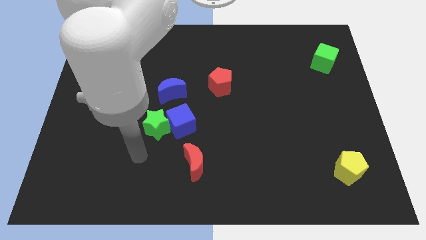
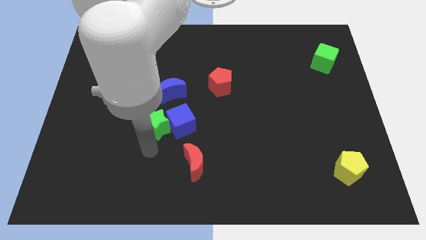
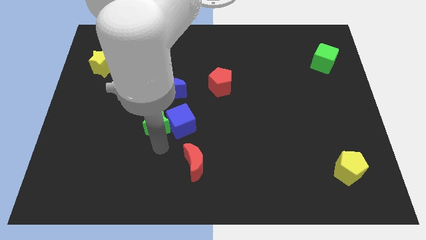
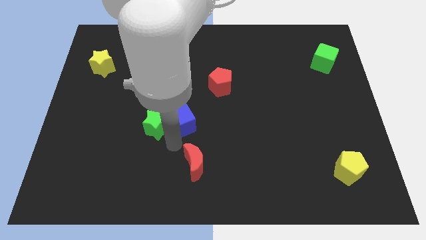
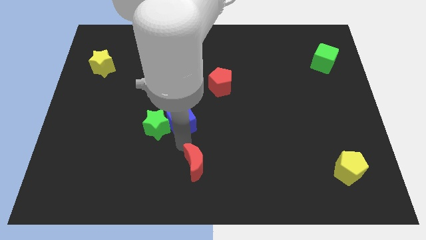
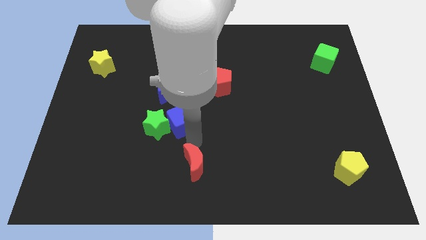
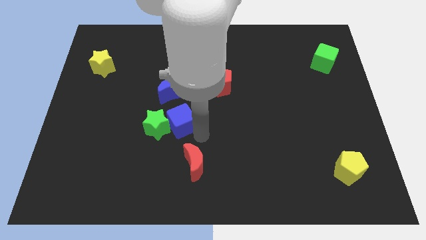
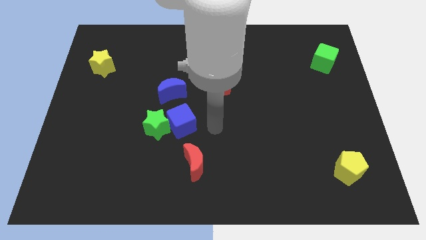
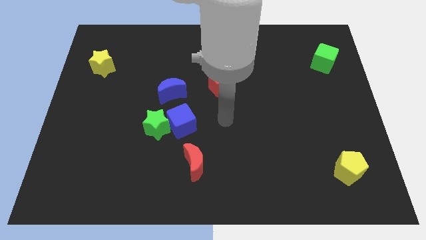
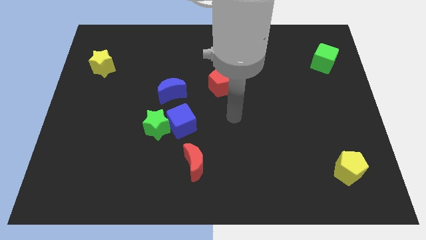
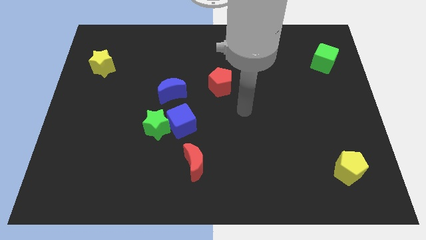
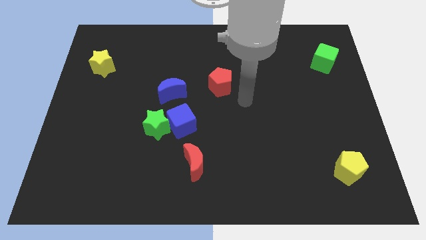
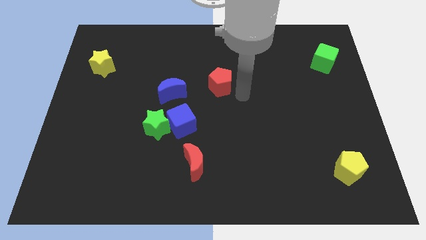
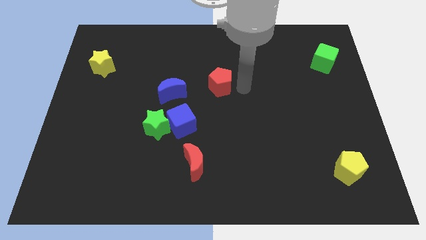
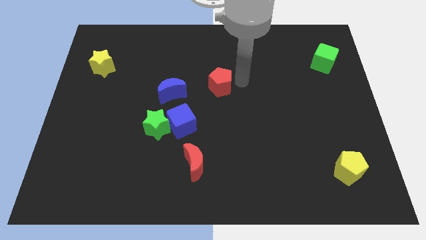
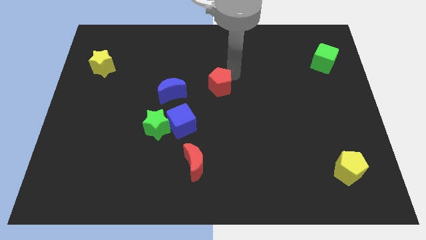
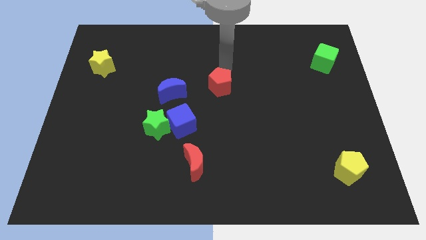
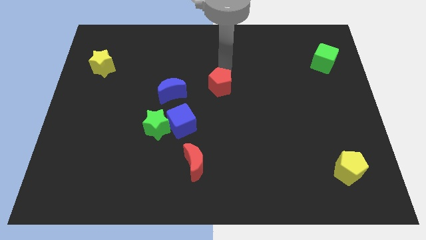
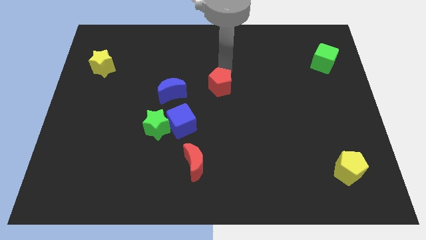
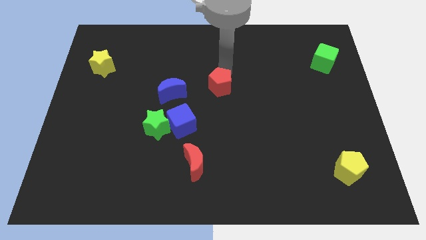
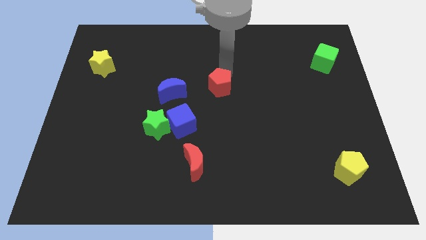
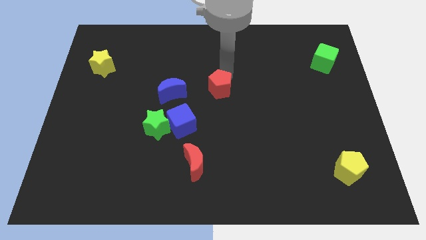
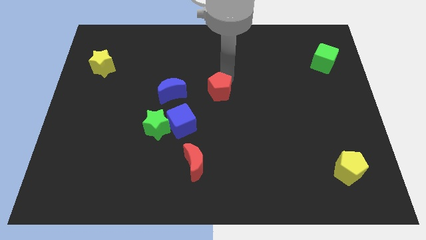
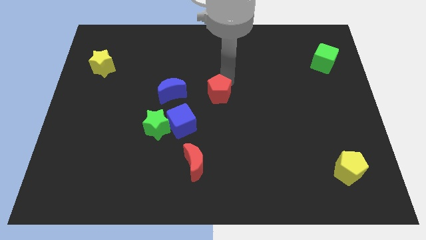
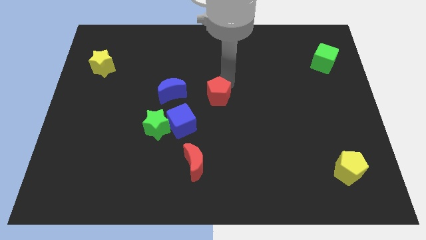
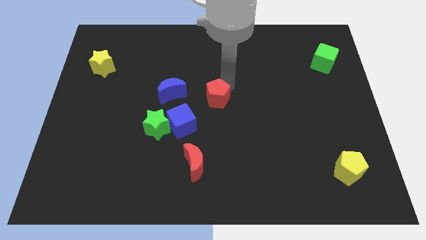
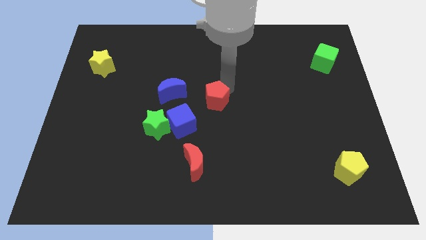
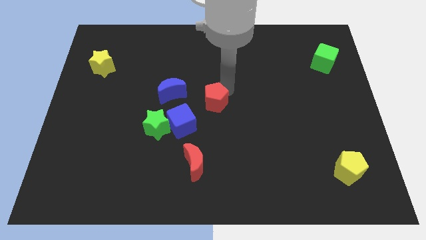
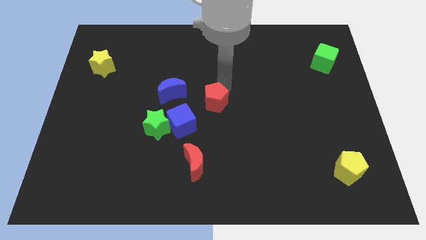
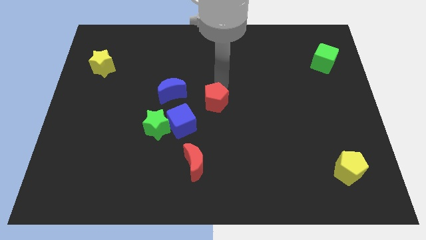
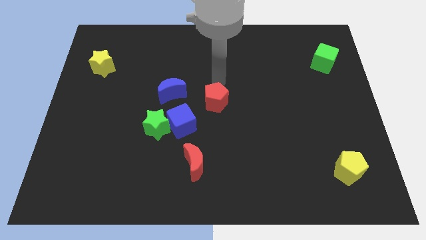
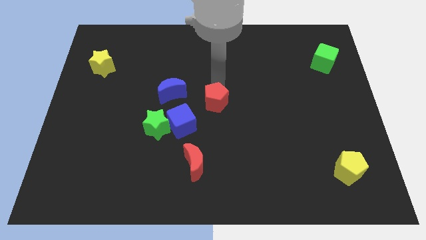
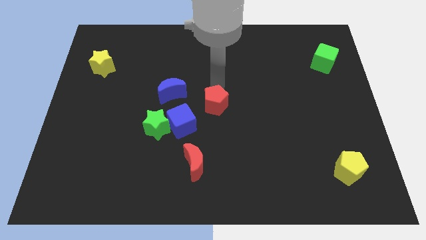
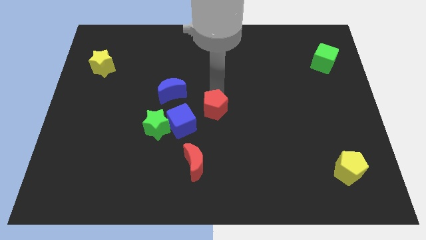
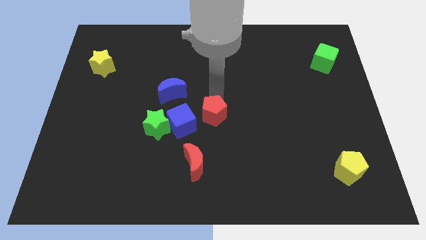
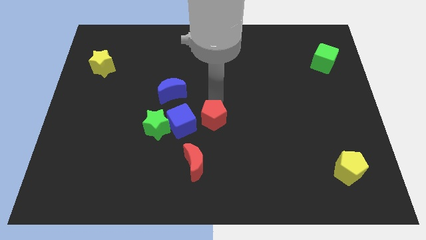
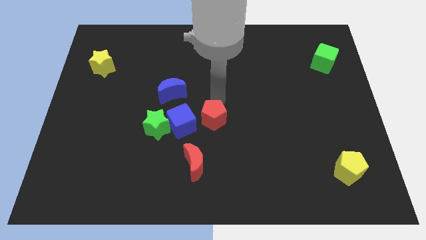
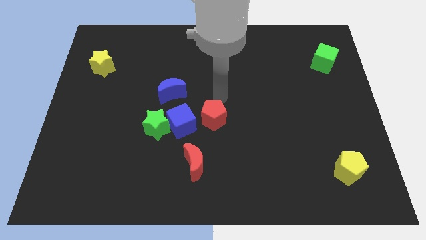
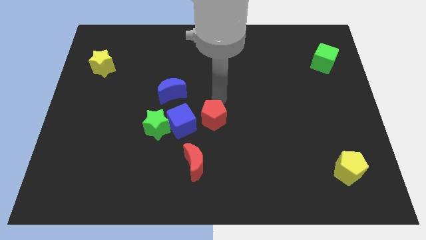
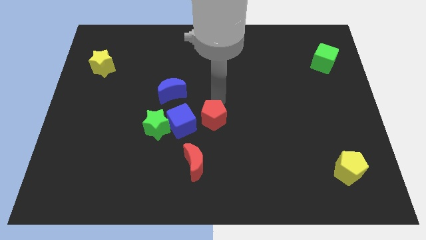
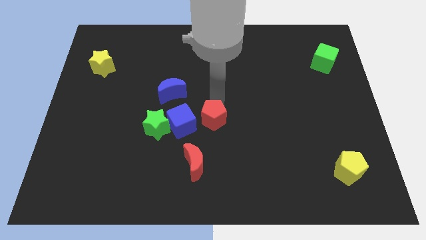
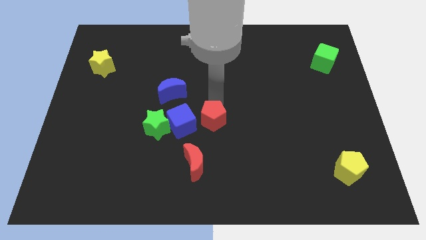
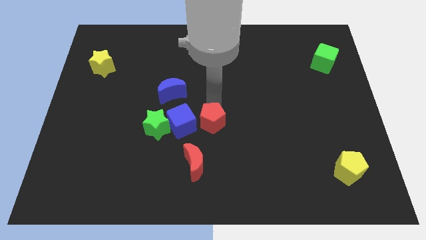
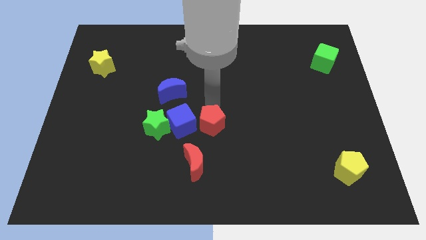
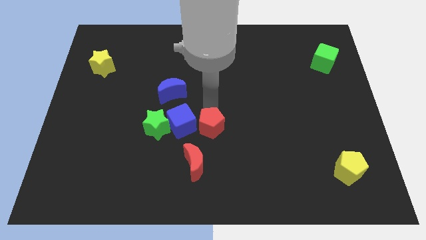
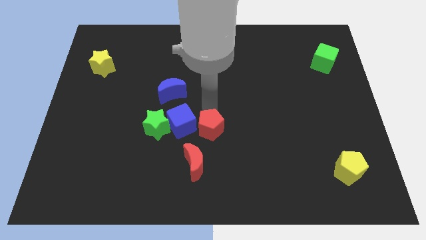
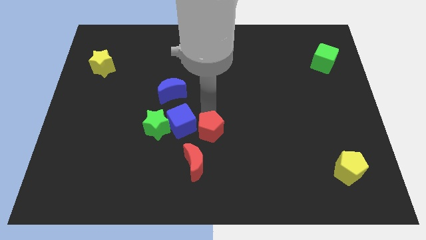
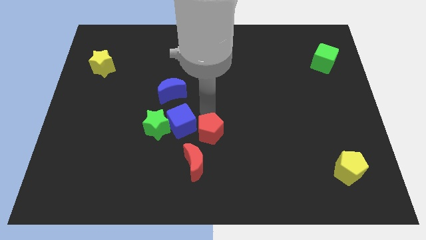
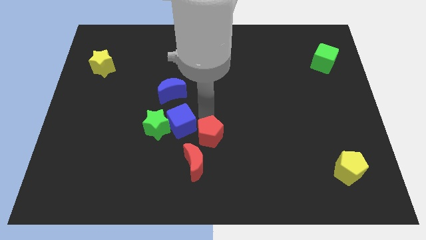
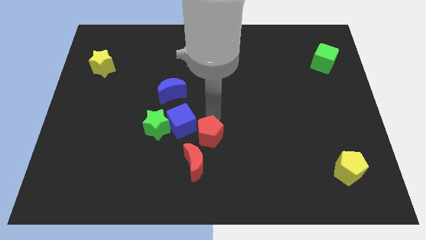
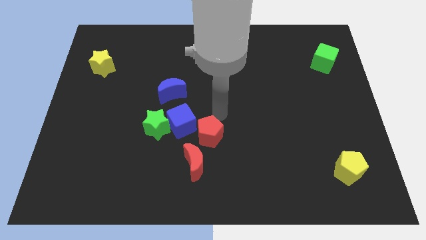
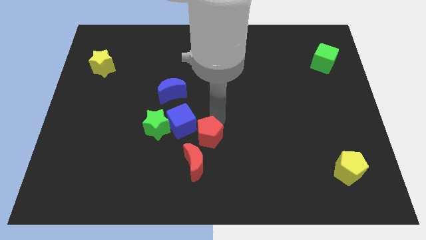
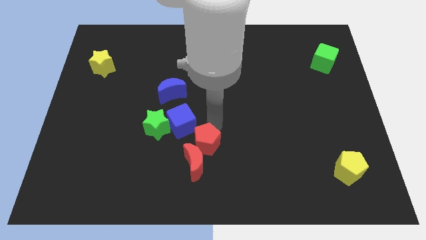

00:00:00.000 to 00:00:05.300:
move the red pentagon to the red moon
